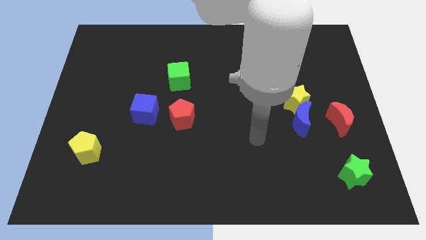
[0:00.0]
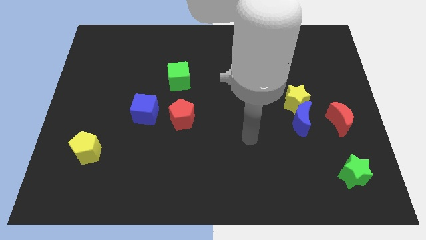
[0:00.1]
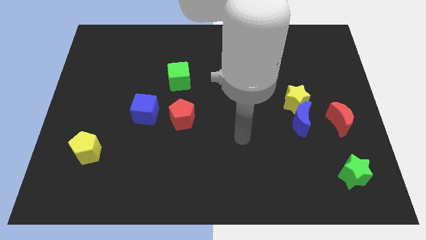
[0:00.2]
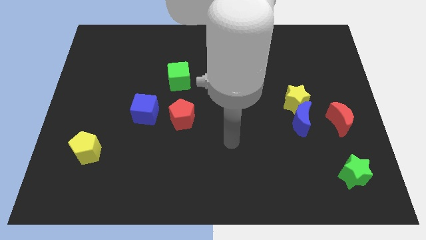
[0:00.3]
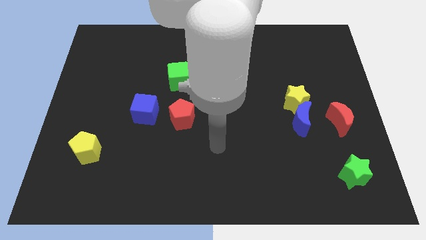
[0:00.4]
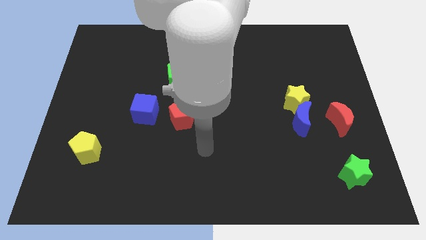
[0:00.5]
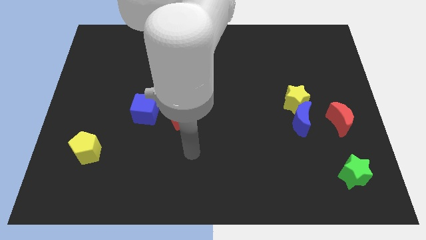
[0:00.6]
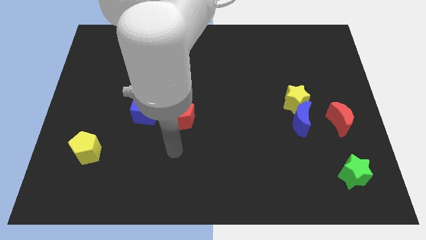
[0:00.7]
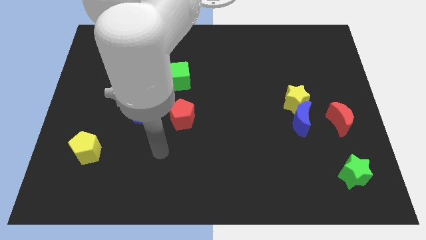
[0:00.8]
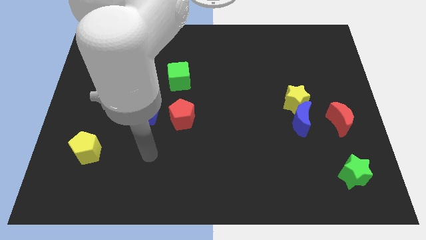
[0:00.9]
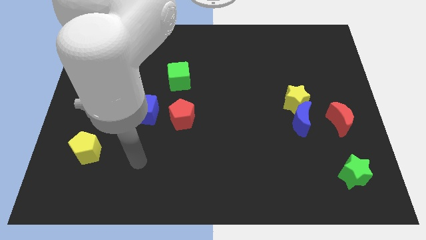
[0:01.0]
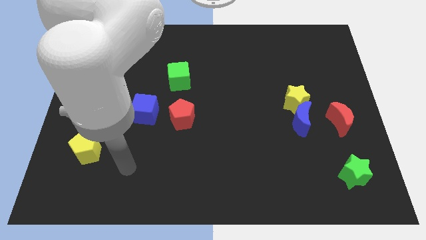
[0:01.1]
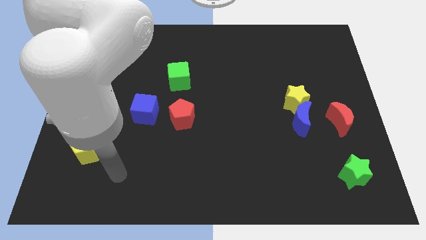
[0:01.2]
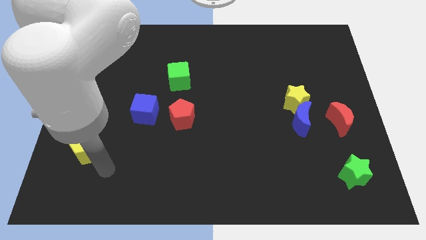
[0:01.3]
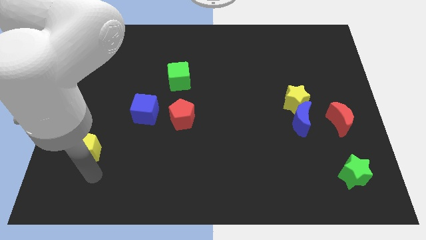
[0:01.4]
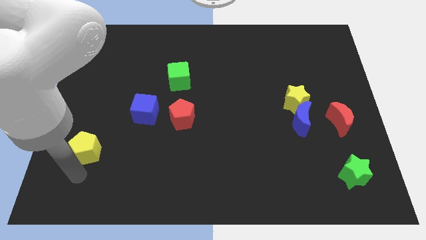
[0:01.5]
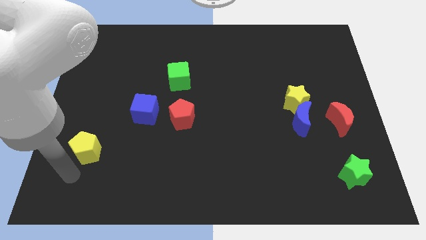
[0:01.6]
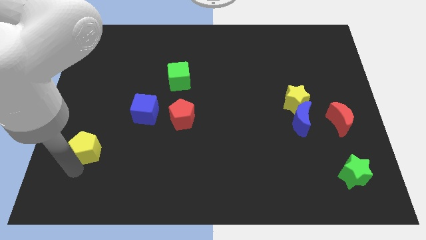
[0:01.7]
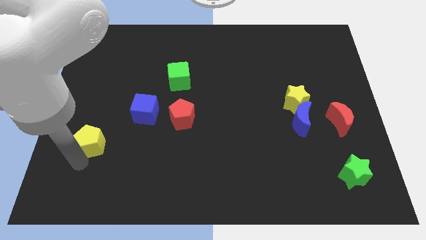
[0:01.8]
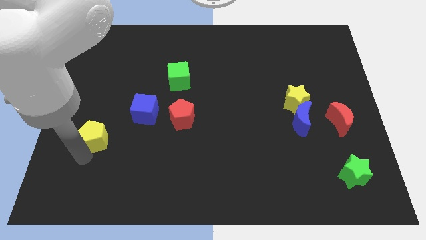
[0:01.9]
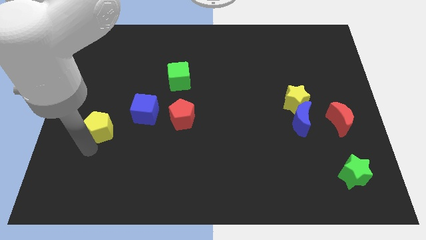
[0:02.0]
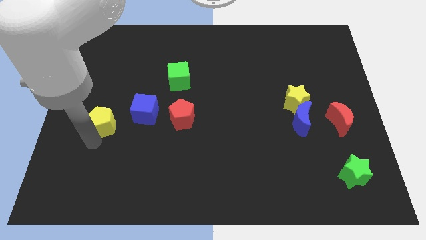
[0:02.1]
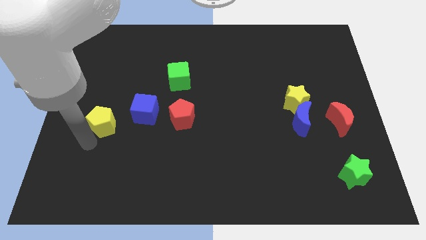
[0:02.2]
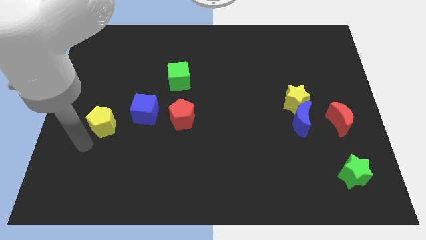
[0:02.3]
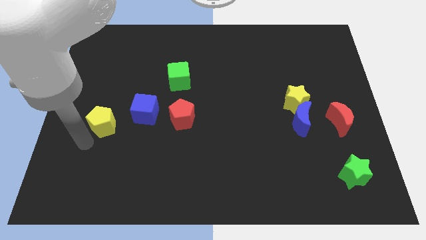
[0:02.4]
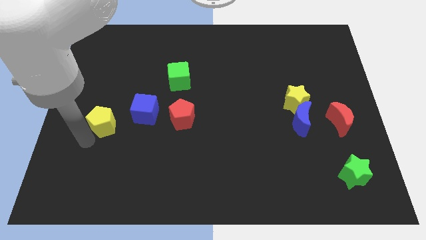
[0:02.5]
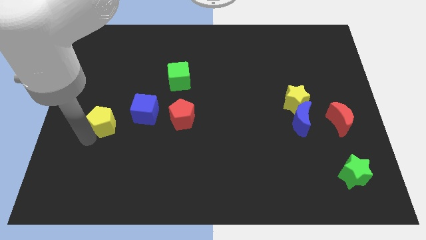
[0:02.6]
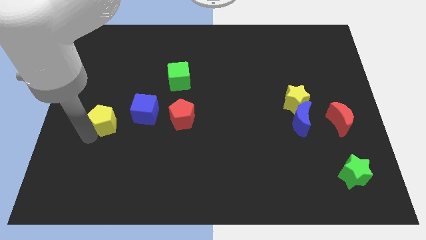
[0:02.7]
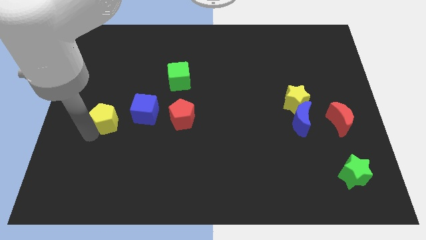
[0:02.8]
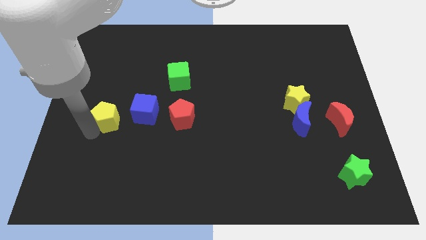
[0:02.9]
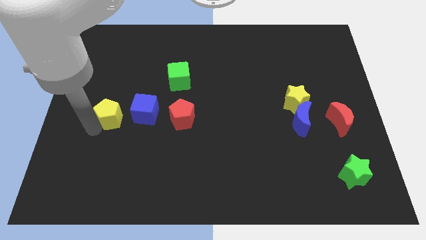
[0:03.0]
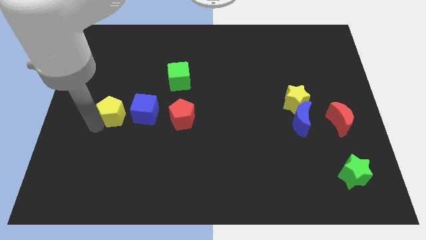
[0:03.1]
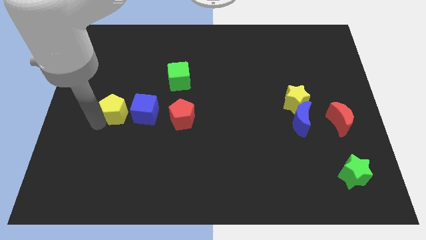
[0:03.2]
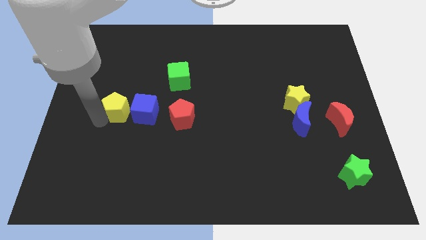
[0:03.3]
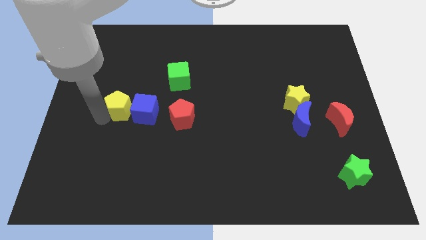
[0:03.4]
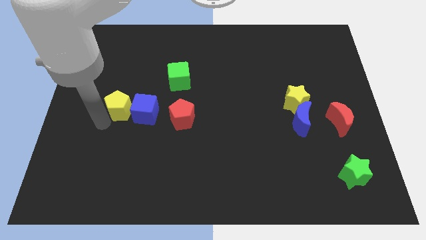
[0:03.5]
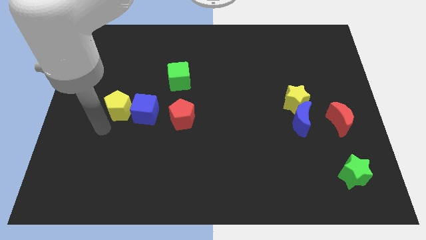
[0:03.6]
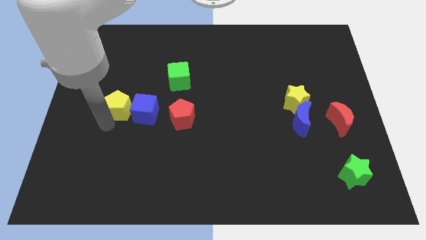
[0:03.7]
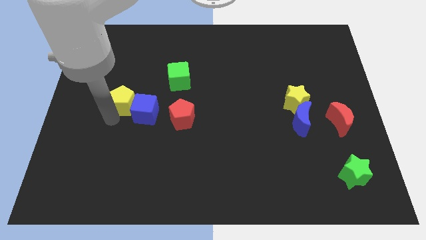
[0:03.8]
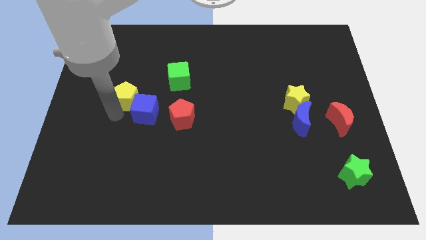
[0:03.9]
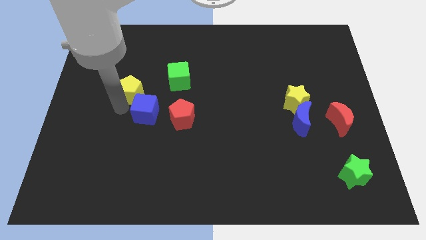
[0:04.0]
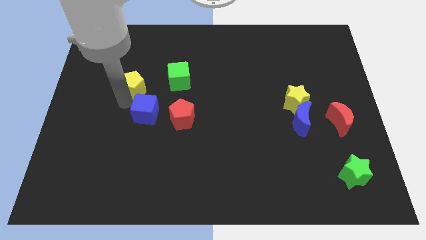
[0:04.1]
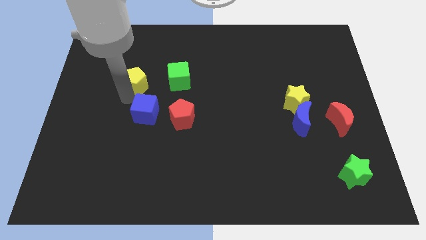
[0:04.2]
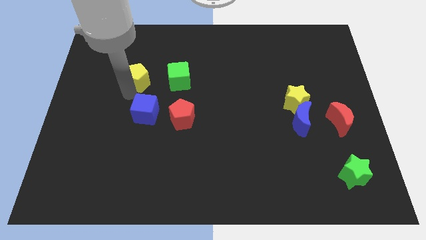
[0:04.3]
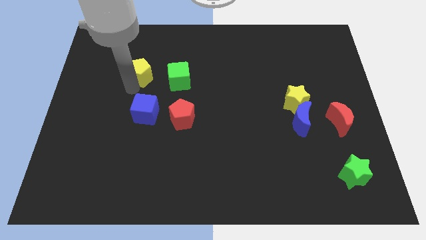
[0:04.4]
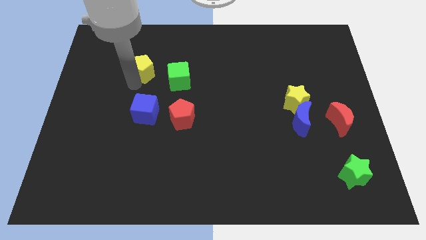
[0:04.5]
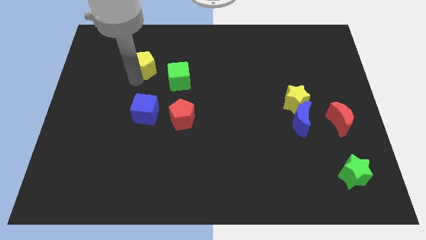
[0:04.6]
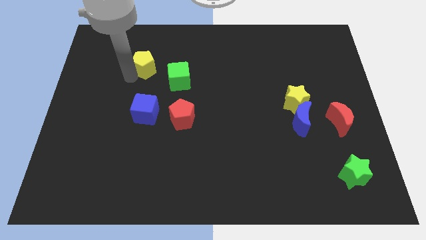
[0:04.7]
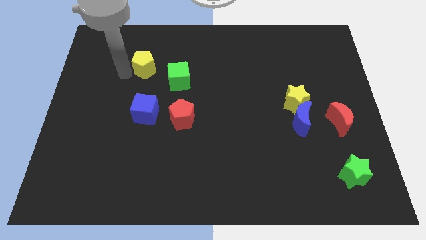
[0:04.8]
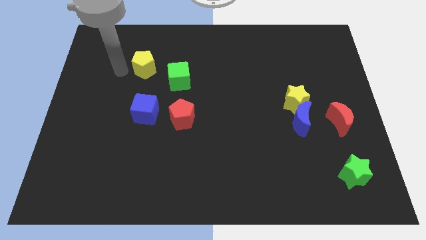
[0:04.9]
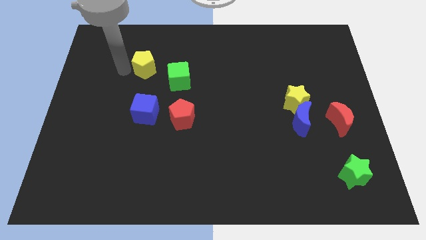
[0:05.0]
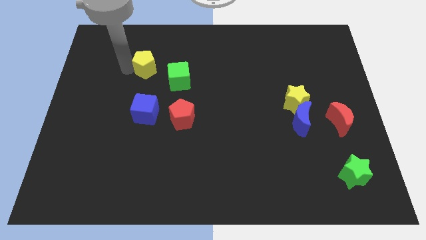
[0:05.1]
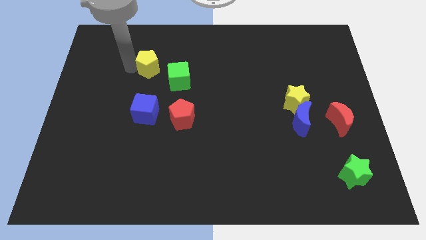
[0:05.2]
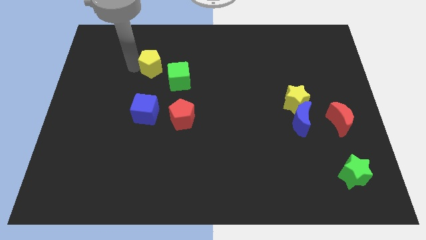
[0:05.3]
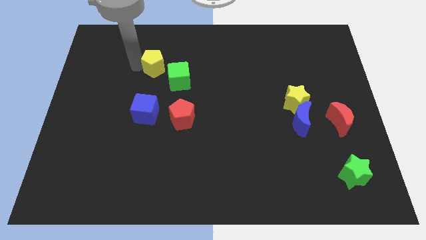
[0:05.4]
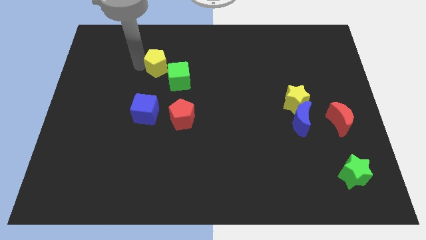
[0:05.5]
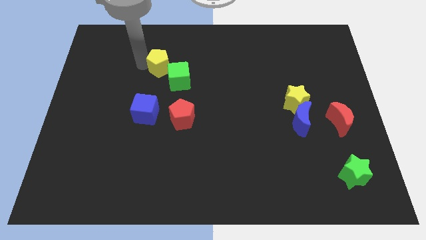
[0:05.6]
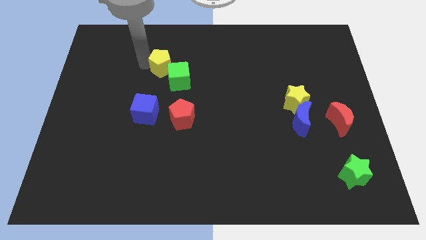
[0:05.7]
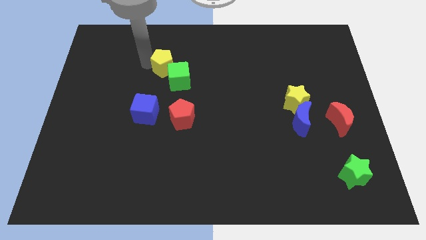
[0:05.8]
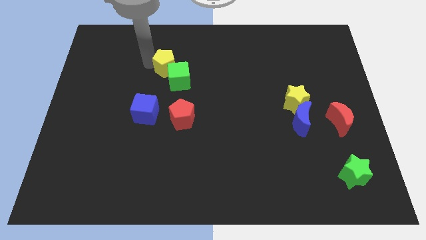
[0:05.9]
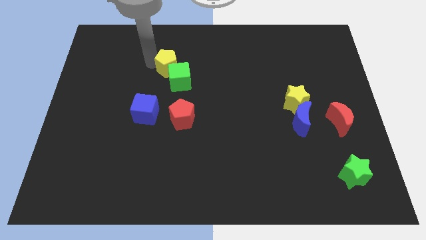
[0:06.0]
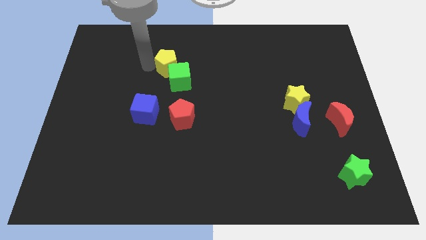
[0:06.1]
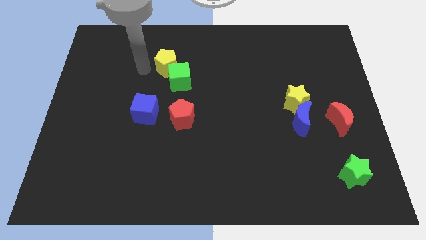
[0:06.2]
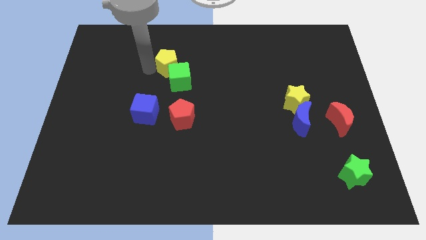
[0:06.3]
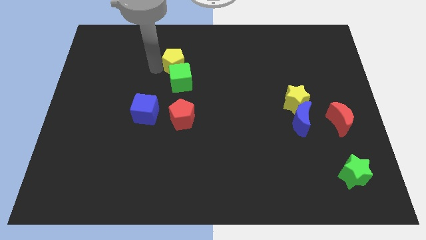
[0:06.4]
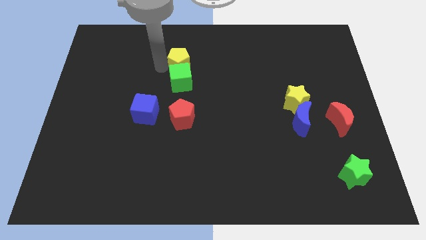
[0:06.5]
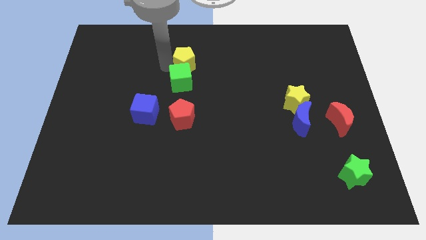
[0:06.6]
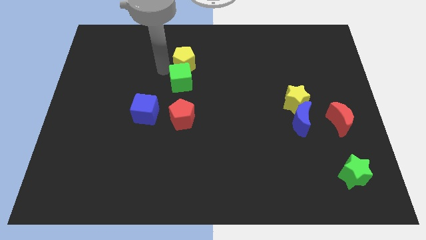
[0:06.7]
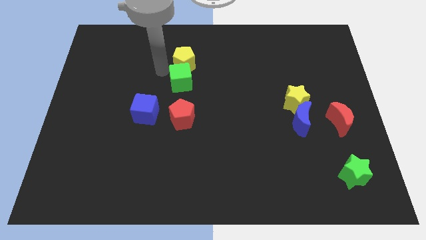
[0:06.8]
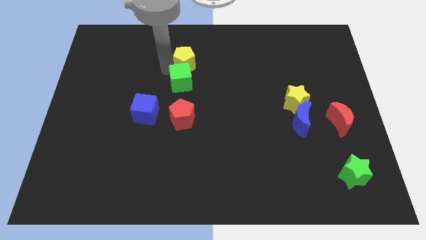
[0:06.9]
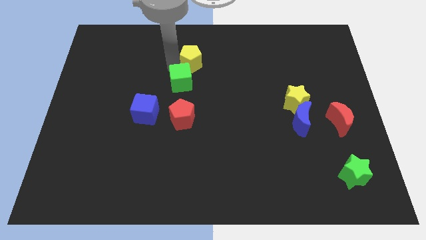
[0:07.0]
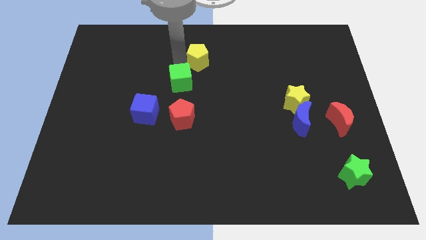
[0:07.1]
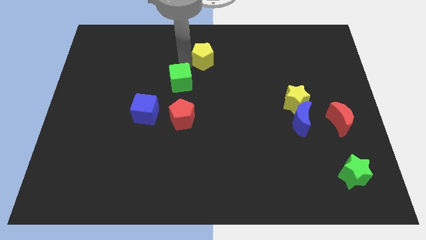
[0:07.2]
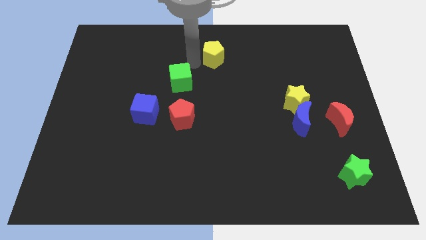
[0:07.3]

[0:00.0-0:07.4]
push the yellow pentagon to the top
